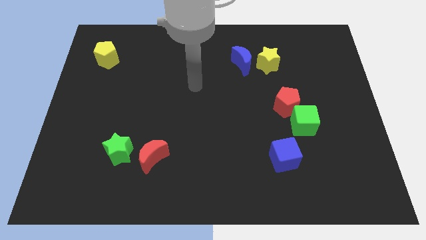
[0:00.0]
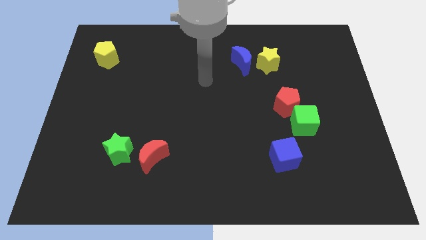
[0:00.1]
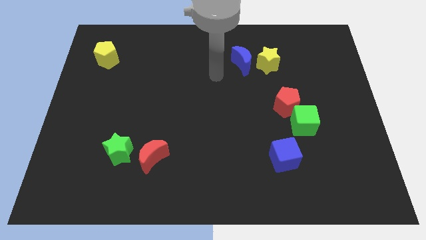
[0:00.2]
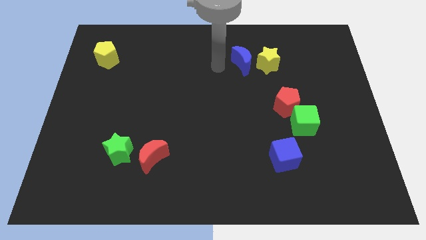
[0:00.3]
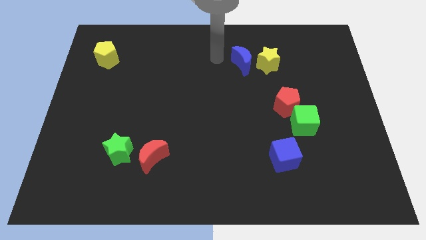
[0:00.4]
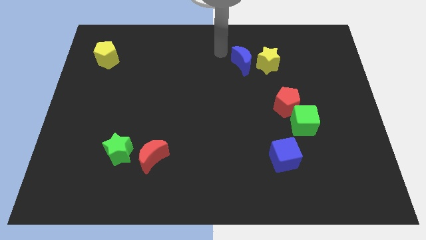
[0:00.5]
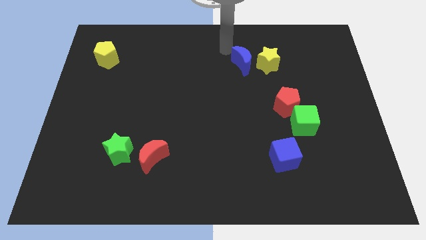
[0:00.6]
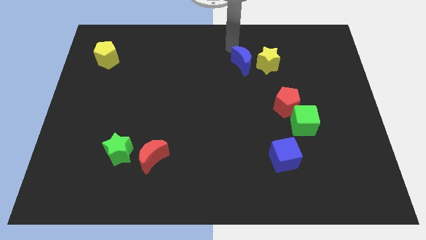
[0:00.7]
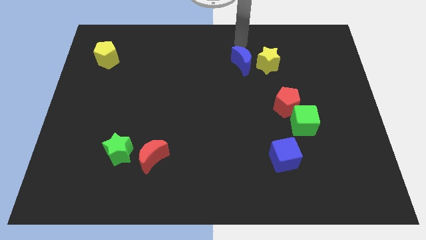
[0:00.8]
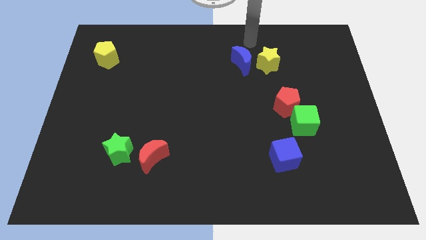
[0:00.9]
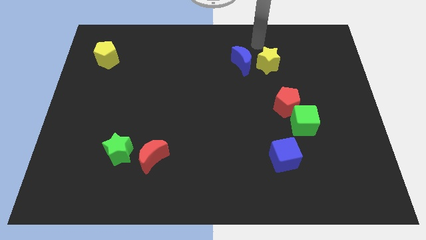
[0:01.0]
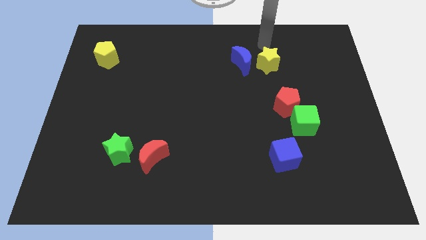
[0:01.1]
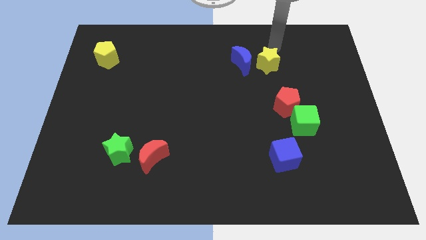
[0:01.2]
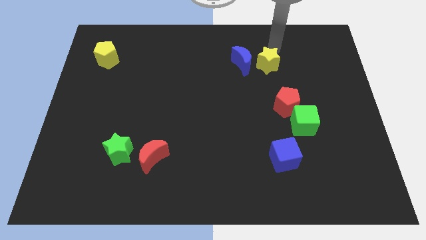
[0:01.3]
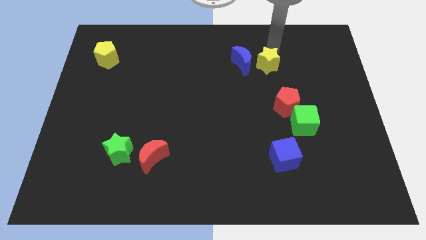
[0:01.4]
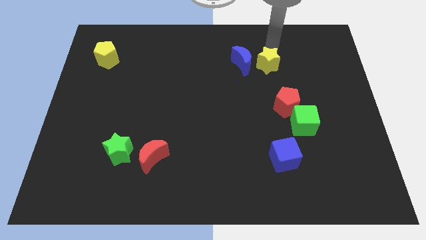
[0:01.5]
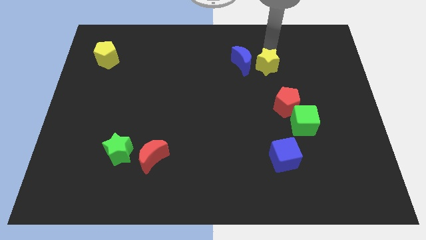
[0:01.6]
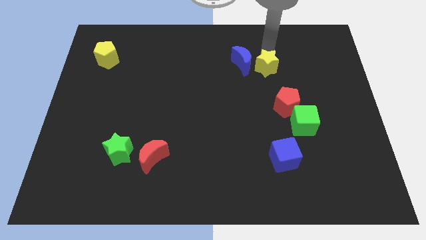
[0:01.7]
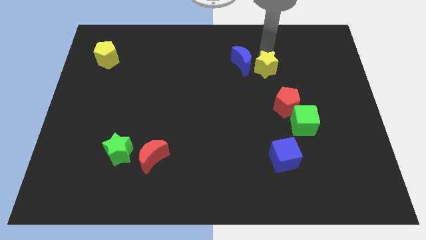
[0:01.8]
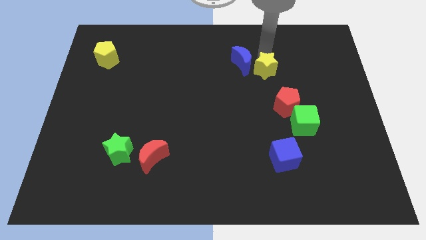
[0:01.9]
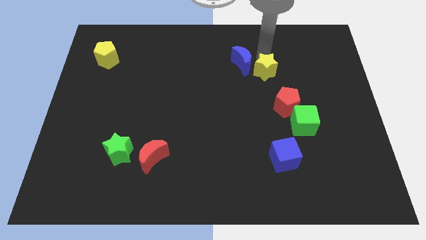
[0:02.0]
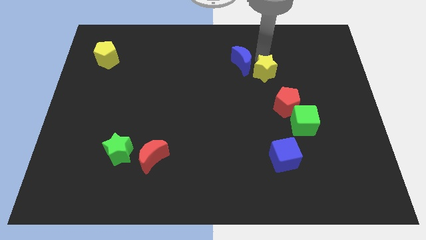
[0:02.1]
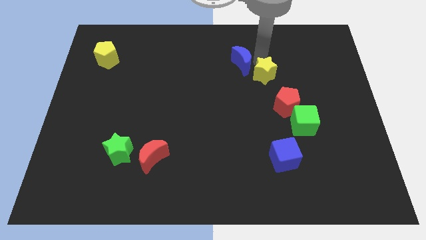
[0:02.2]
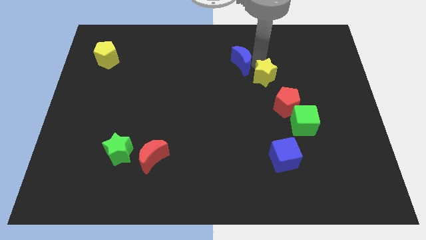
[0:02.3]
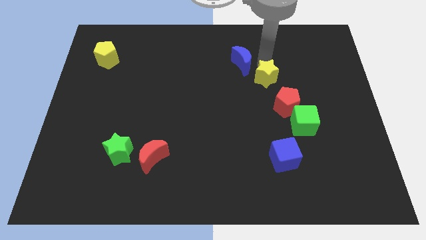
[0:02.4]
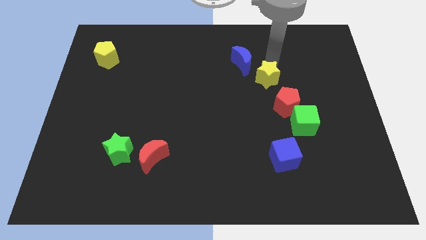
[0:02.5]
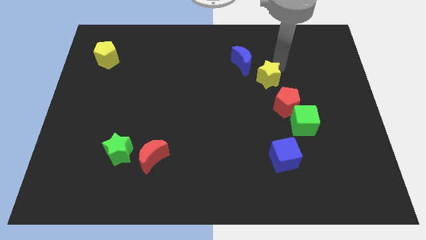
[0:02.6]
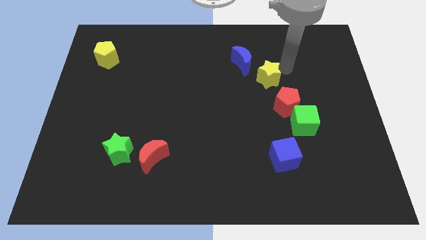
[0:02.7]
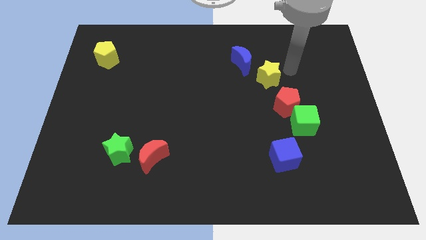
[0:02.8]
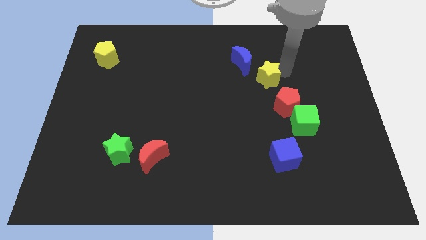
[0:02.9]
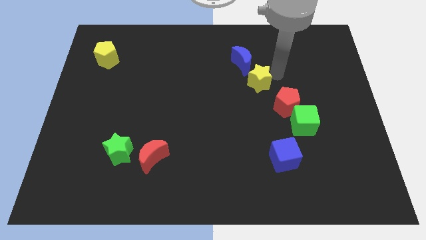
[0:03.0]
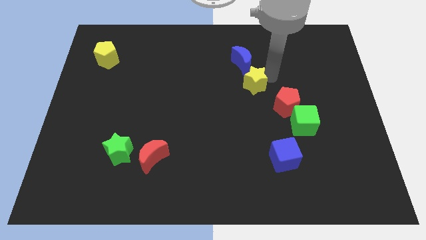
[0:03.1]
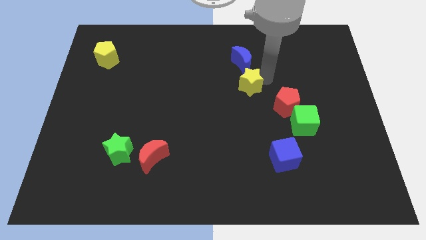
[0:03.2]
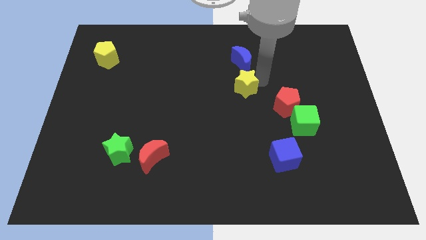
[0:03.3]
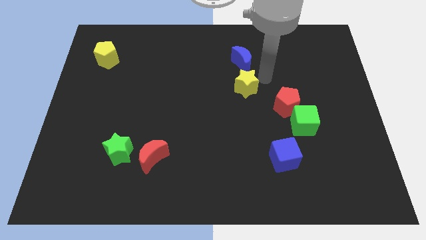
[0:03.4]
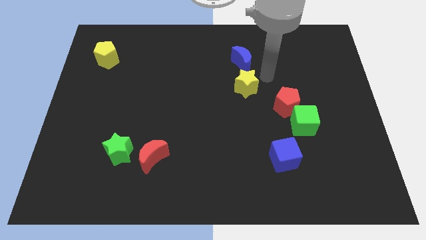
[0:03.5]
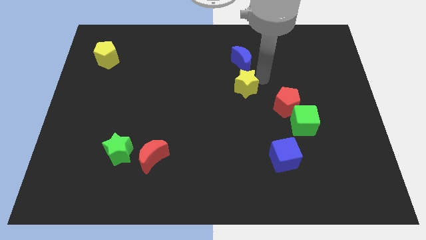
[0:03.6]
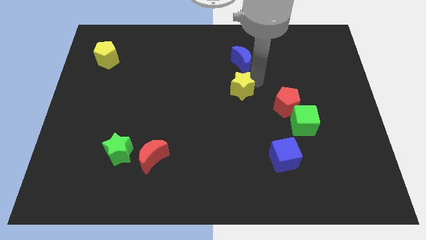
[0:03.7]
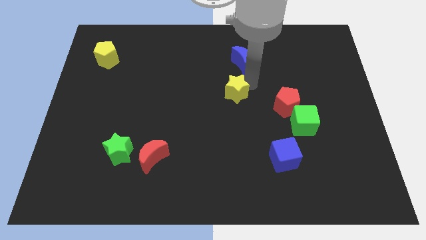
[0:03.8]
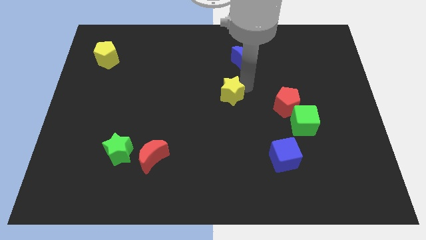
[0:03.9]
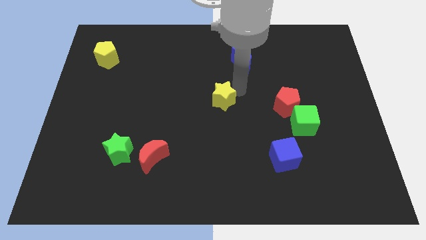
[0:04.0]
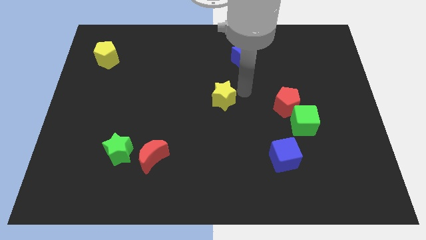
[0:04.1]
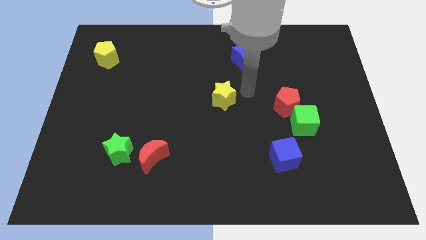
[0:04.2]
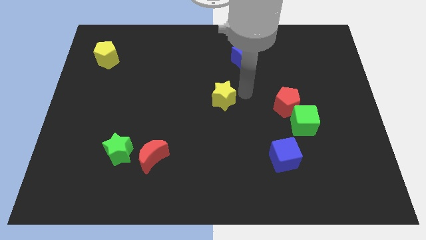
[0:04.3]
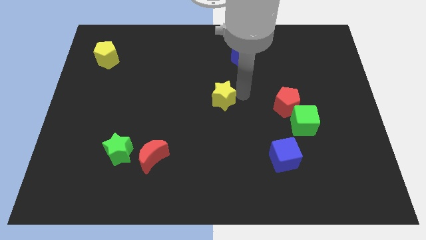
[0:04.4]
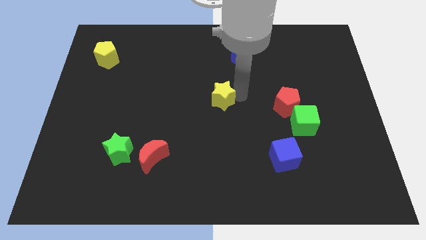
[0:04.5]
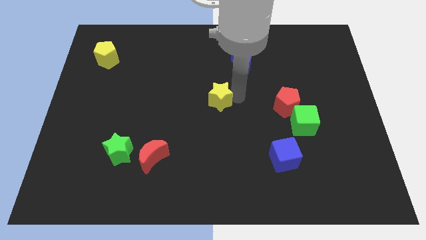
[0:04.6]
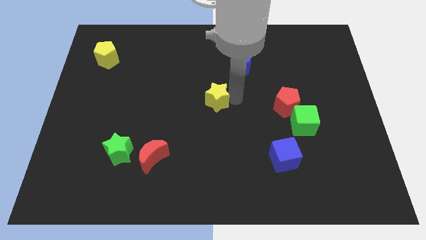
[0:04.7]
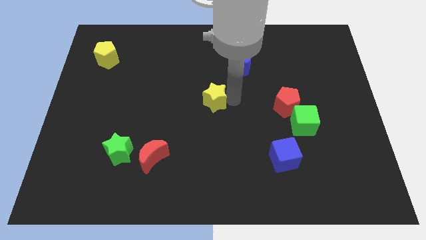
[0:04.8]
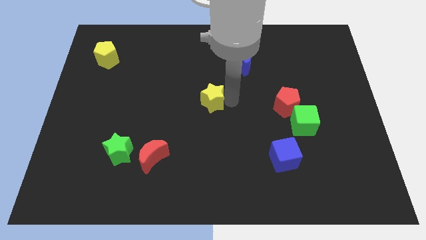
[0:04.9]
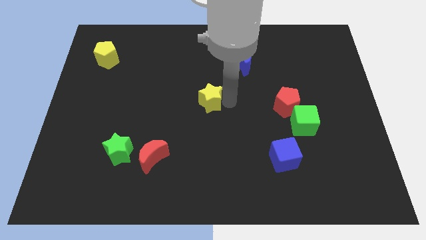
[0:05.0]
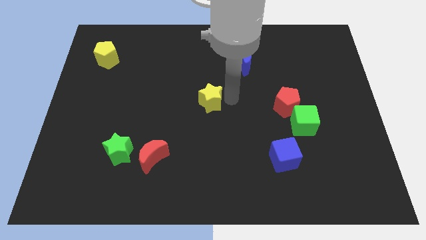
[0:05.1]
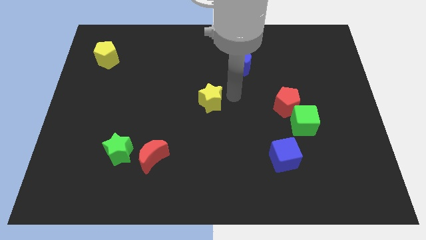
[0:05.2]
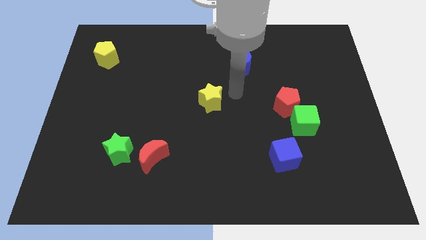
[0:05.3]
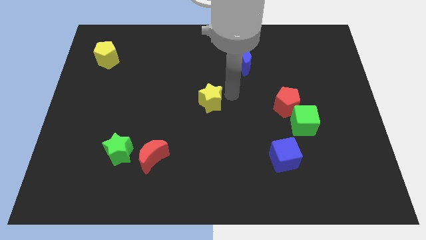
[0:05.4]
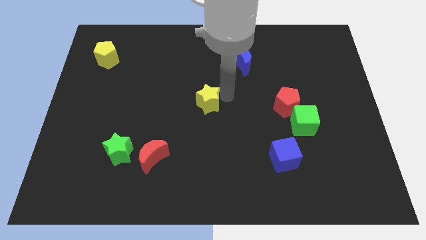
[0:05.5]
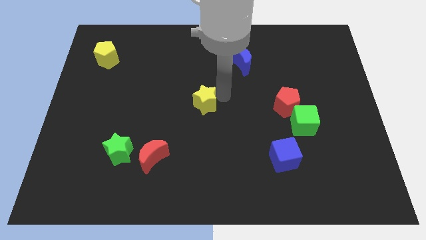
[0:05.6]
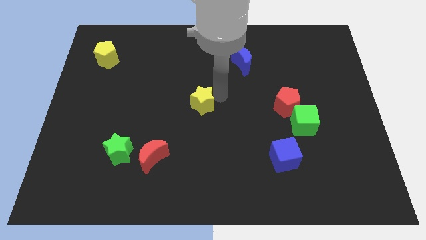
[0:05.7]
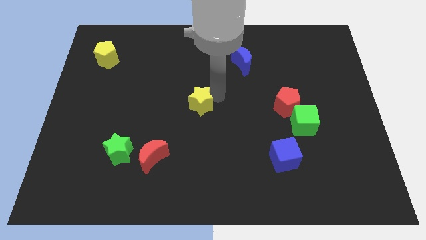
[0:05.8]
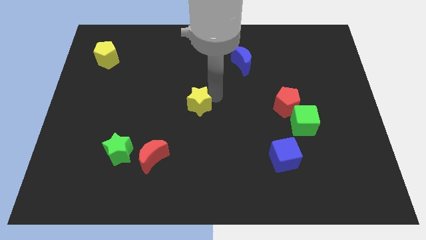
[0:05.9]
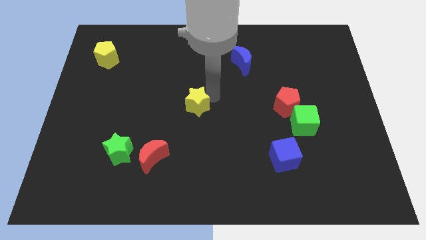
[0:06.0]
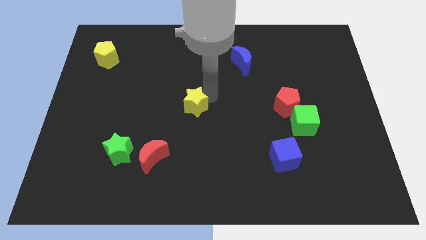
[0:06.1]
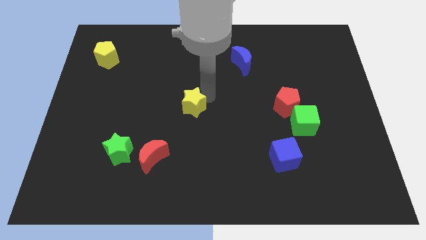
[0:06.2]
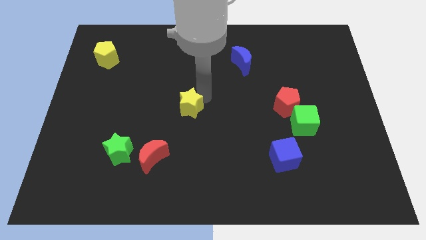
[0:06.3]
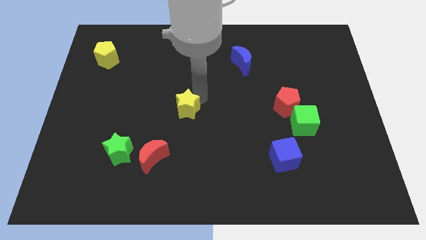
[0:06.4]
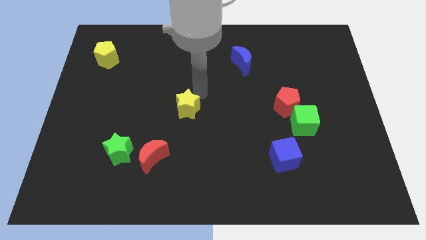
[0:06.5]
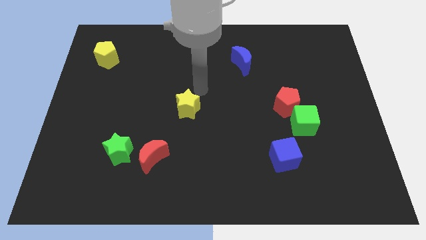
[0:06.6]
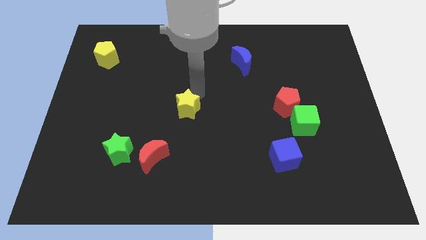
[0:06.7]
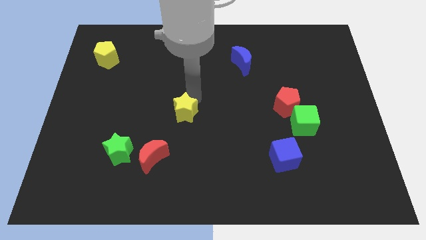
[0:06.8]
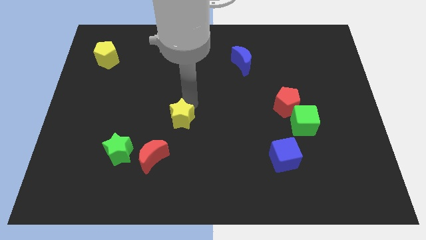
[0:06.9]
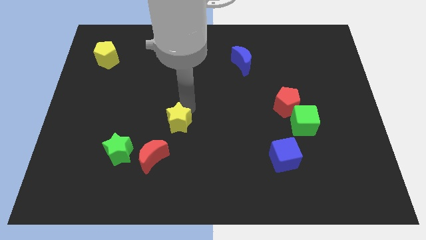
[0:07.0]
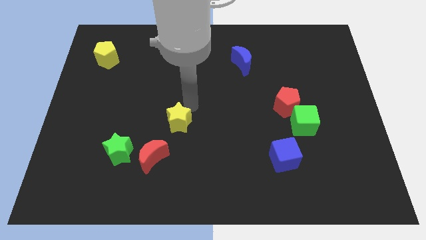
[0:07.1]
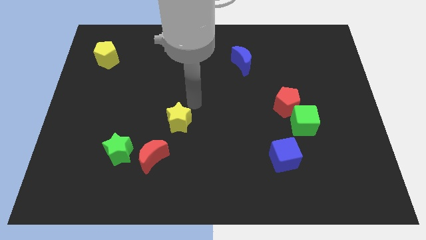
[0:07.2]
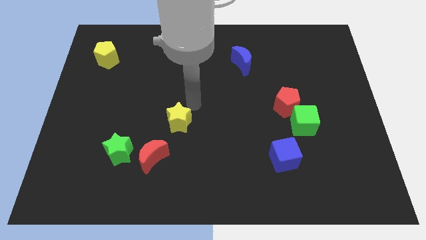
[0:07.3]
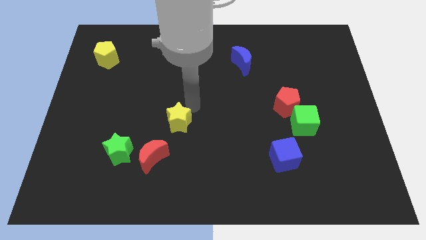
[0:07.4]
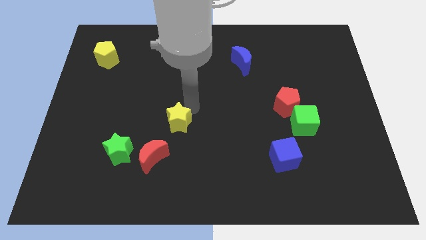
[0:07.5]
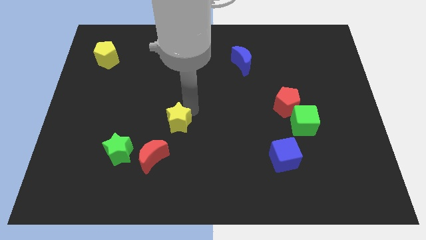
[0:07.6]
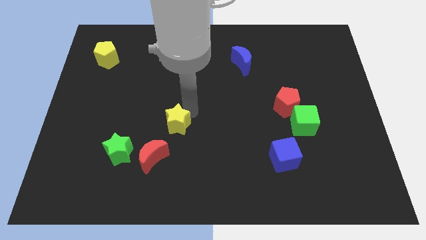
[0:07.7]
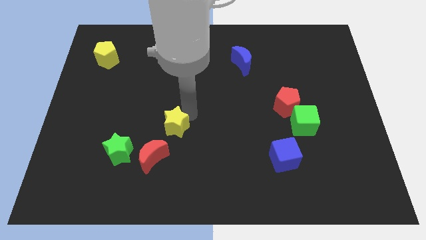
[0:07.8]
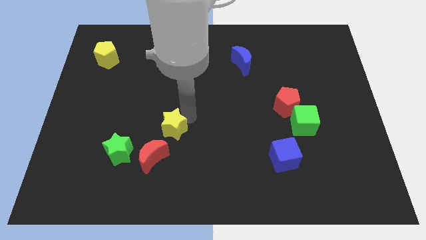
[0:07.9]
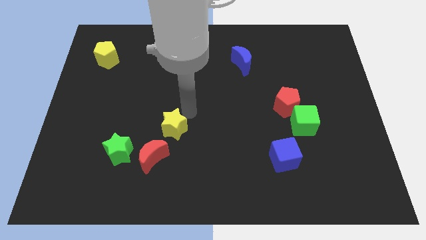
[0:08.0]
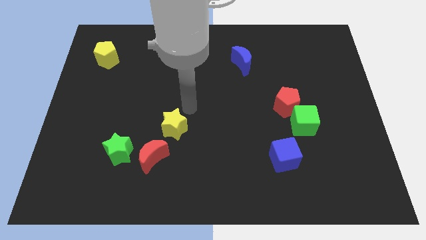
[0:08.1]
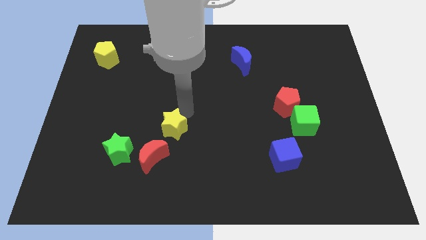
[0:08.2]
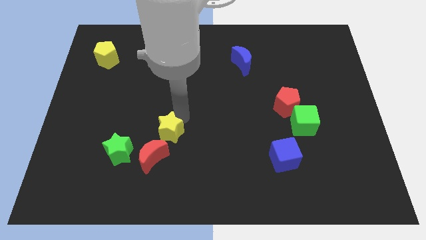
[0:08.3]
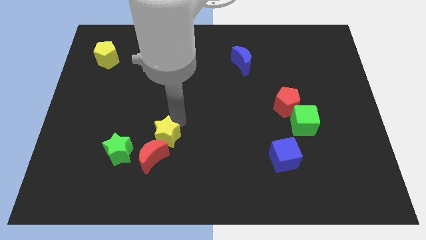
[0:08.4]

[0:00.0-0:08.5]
put the yellow star close to the red moon
